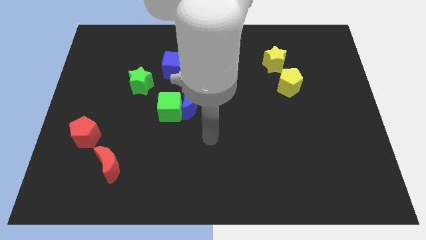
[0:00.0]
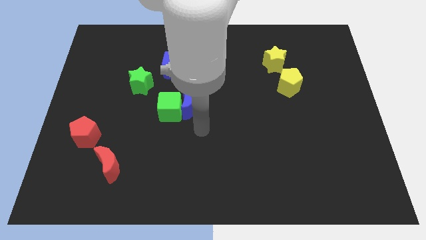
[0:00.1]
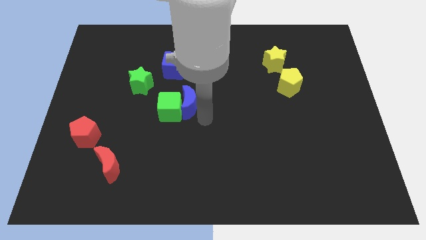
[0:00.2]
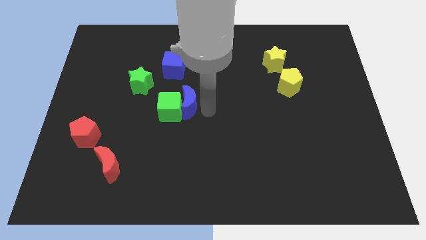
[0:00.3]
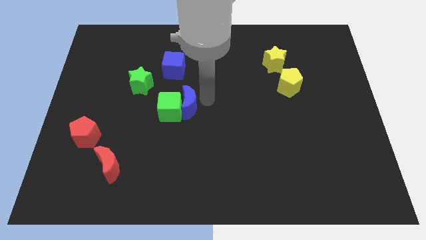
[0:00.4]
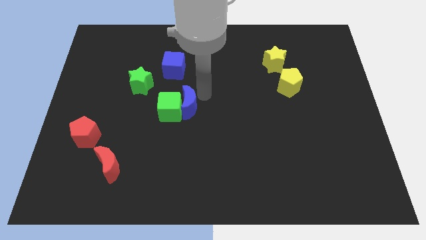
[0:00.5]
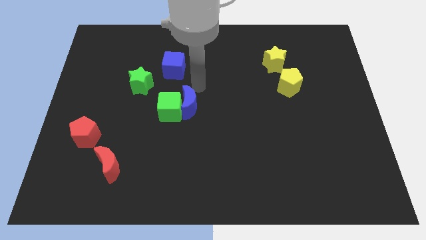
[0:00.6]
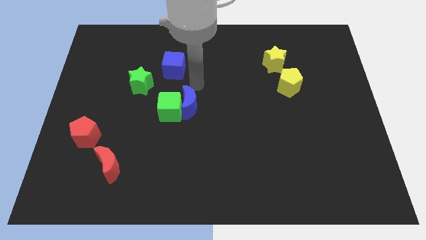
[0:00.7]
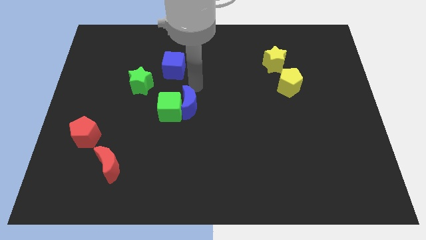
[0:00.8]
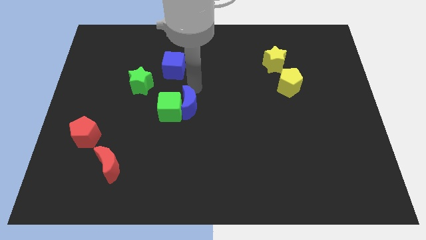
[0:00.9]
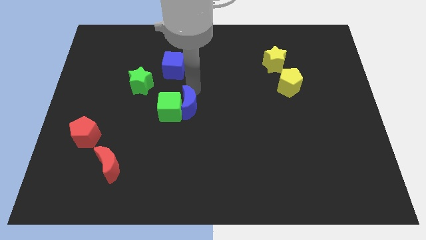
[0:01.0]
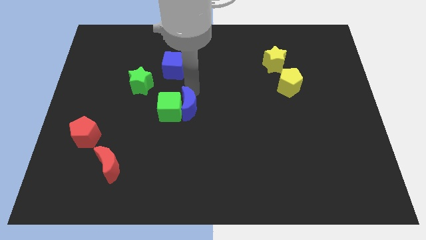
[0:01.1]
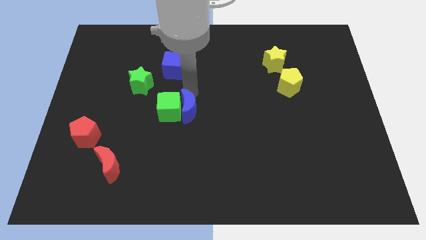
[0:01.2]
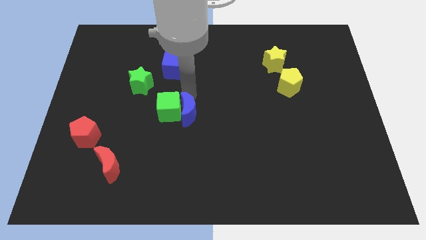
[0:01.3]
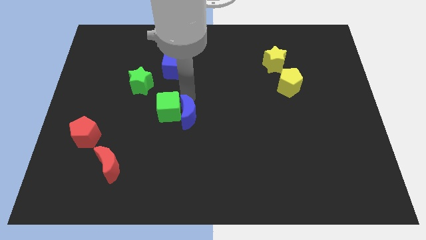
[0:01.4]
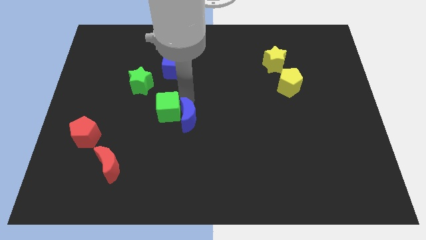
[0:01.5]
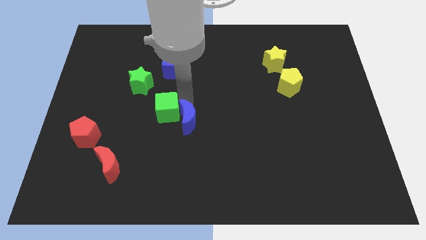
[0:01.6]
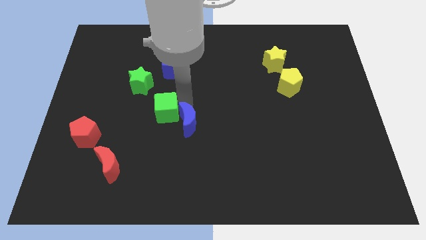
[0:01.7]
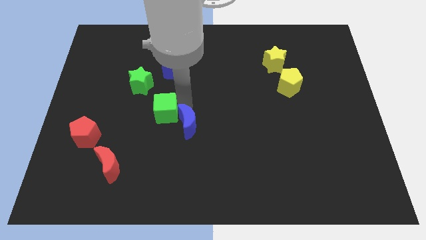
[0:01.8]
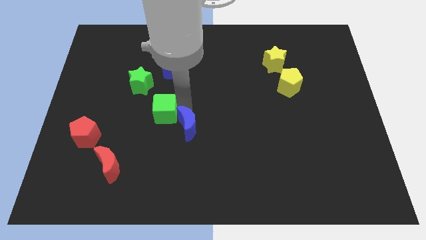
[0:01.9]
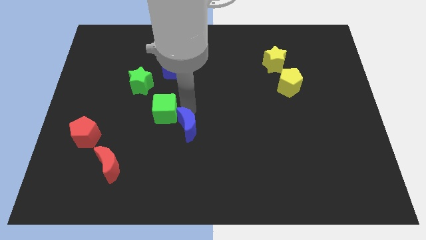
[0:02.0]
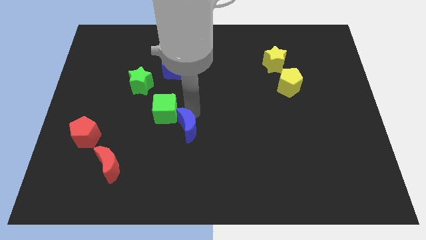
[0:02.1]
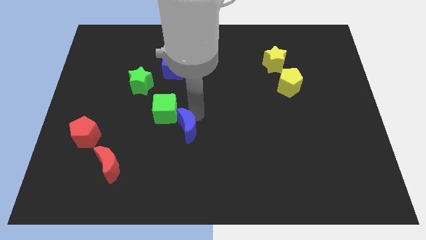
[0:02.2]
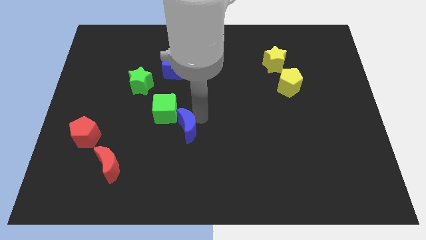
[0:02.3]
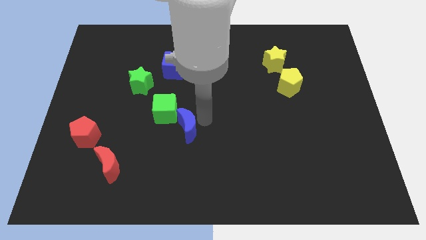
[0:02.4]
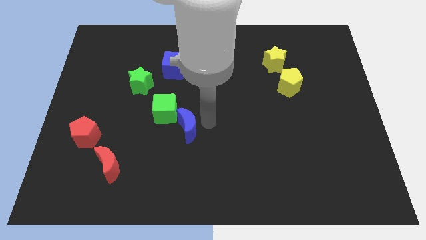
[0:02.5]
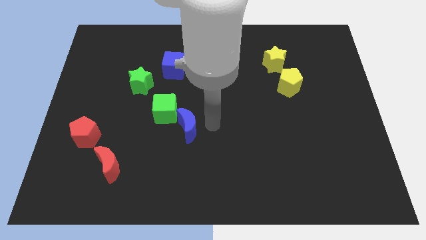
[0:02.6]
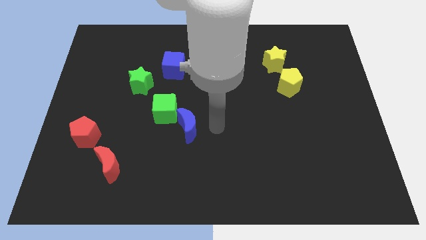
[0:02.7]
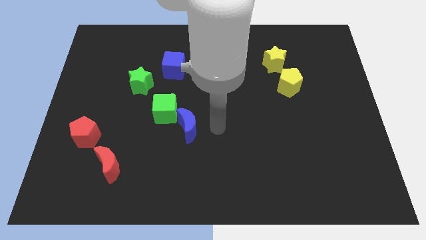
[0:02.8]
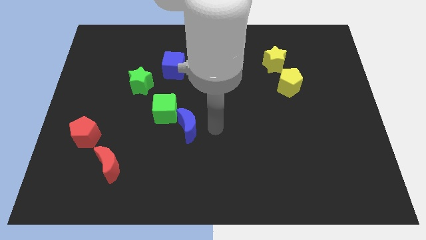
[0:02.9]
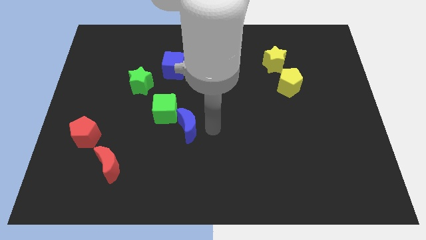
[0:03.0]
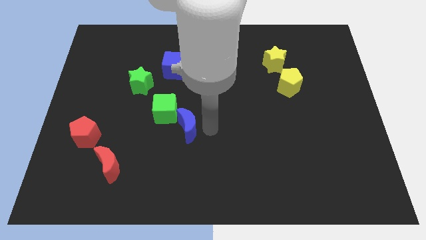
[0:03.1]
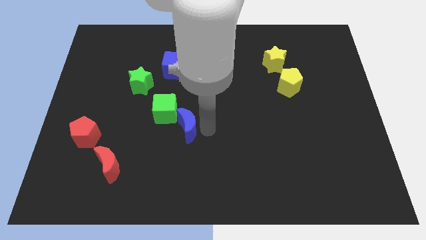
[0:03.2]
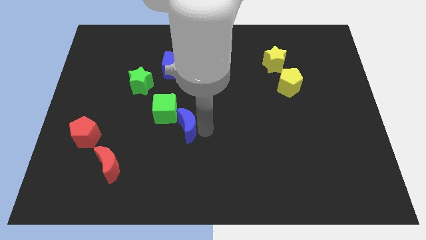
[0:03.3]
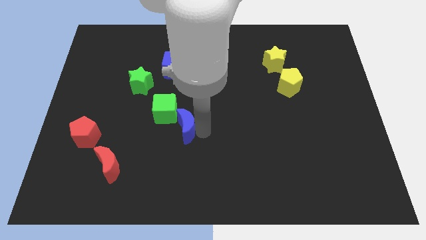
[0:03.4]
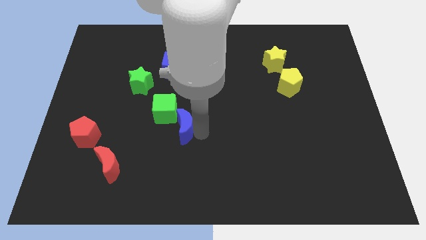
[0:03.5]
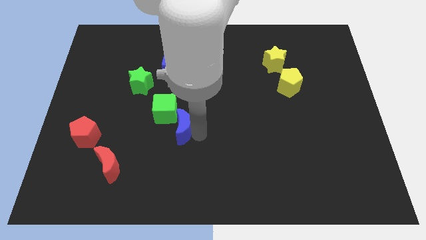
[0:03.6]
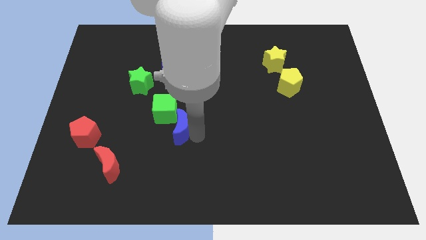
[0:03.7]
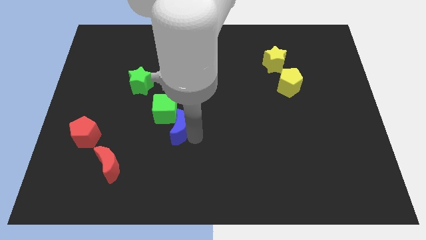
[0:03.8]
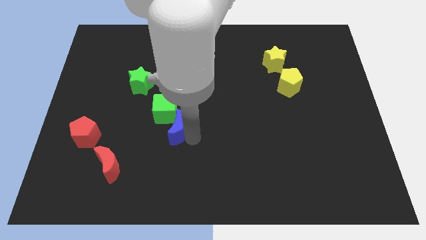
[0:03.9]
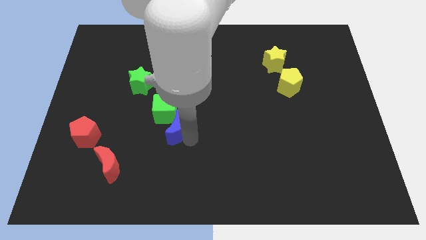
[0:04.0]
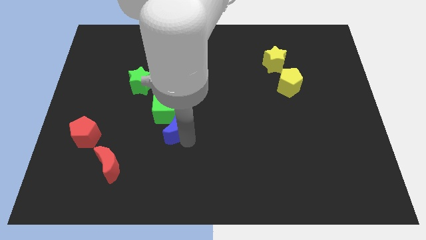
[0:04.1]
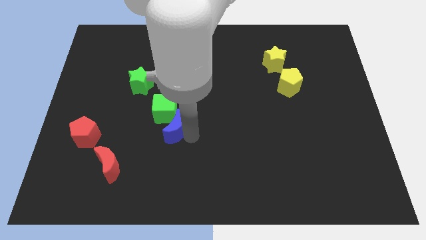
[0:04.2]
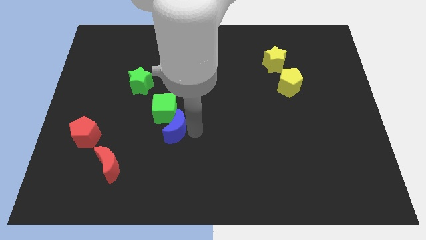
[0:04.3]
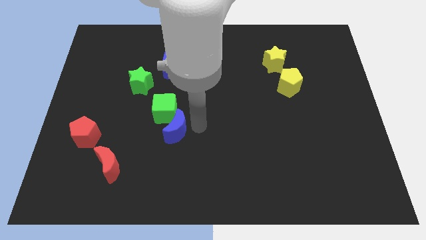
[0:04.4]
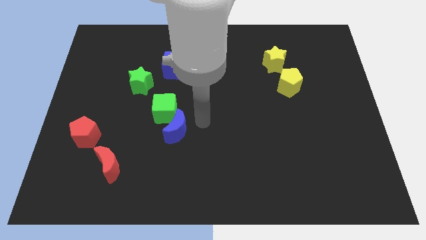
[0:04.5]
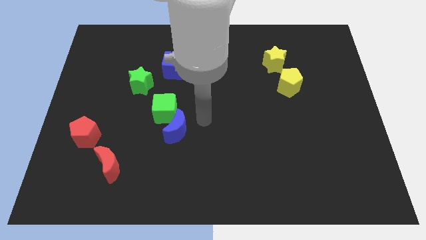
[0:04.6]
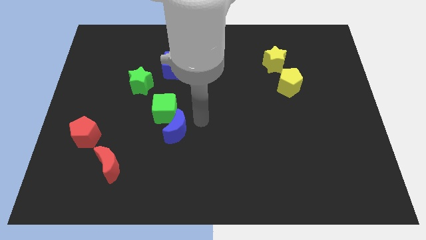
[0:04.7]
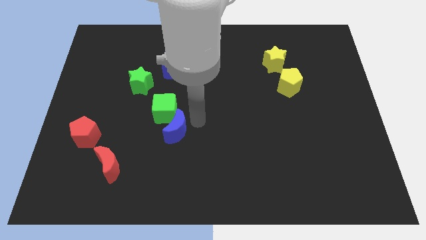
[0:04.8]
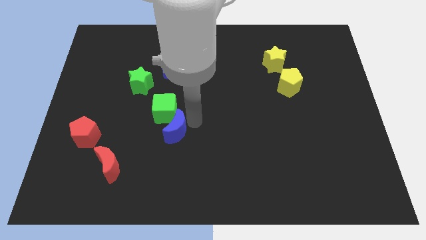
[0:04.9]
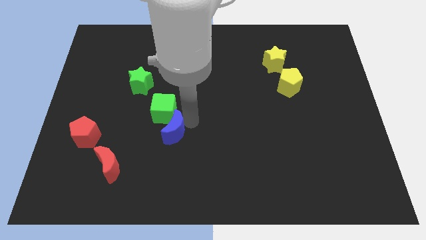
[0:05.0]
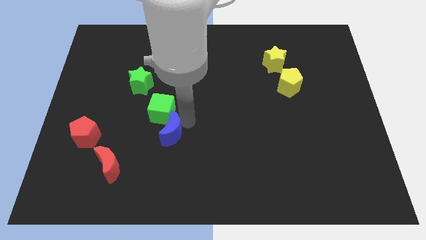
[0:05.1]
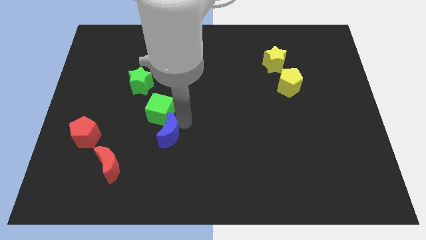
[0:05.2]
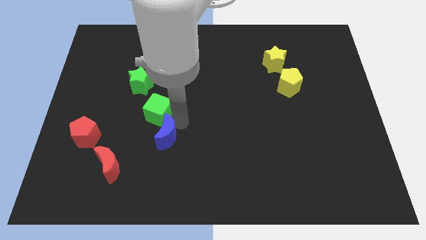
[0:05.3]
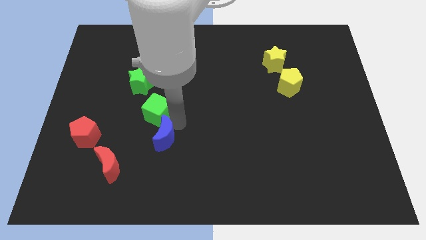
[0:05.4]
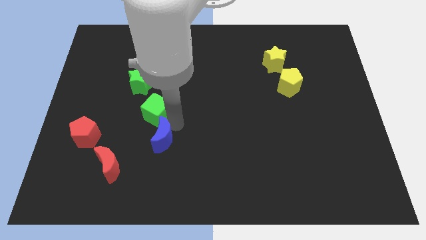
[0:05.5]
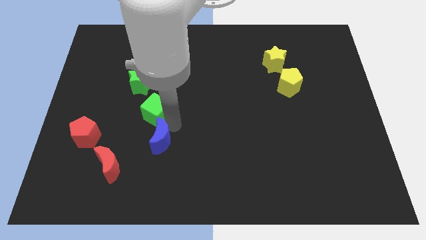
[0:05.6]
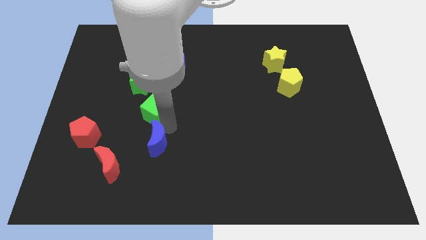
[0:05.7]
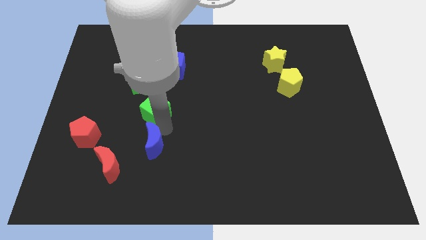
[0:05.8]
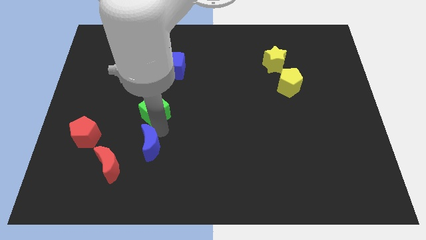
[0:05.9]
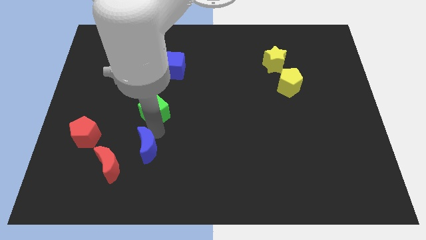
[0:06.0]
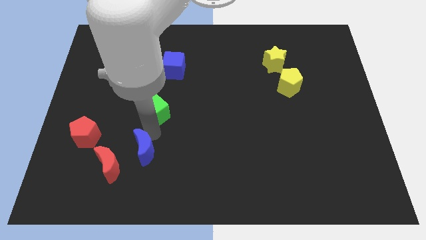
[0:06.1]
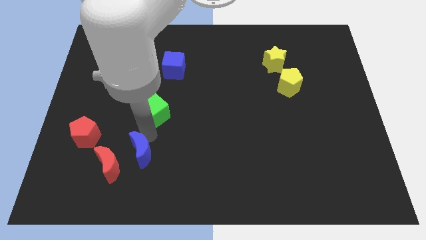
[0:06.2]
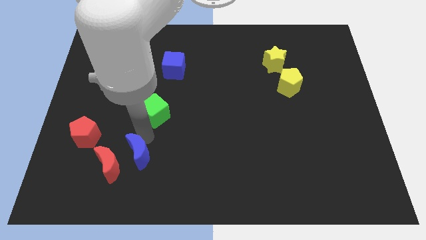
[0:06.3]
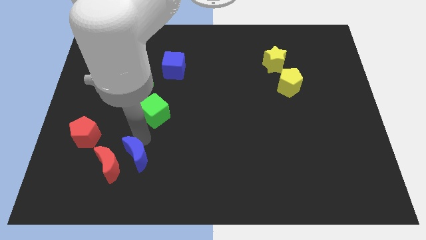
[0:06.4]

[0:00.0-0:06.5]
slide the blue moon next to the red moon

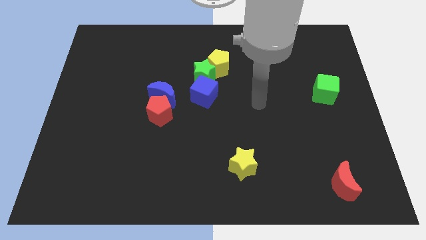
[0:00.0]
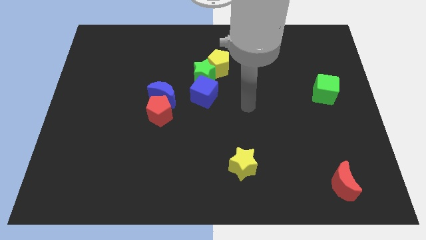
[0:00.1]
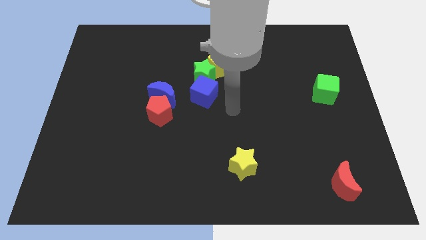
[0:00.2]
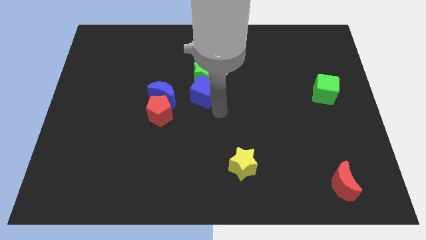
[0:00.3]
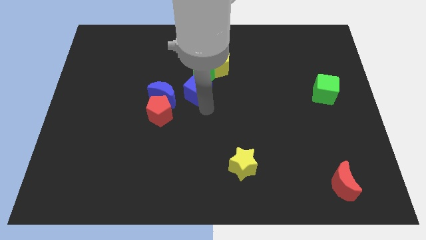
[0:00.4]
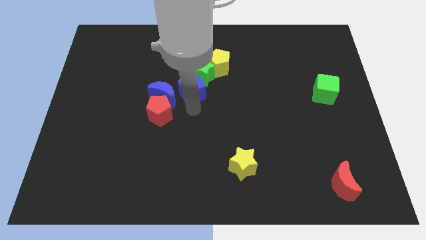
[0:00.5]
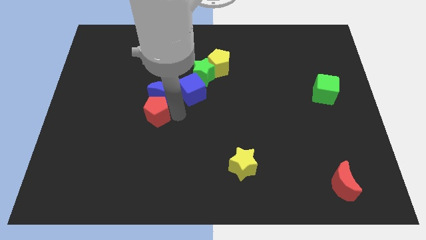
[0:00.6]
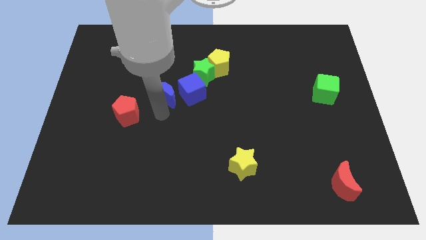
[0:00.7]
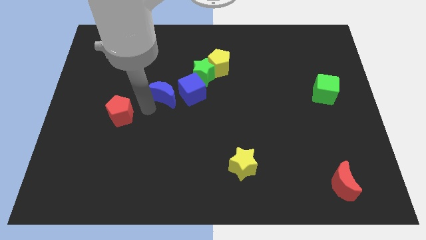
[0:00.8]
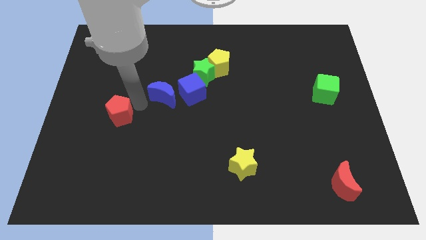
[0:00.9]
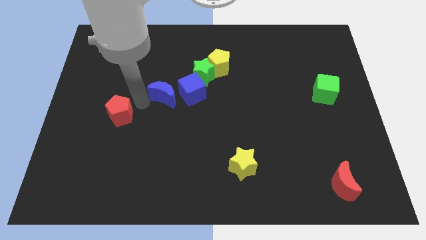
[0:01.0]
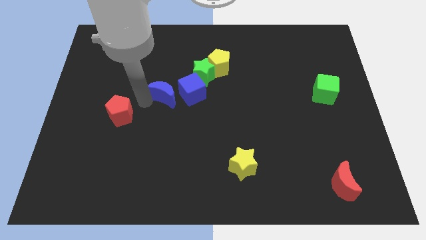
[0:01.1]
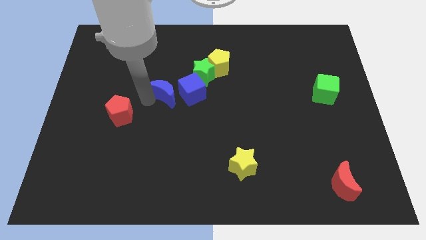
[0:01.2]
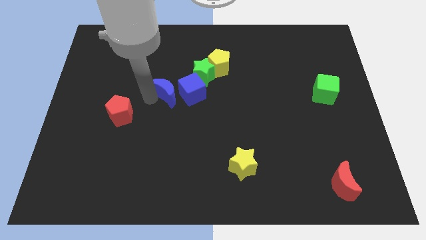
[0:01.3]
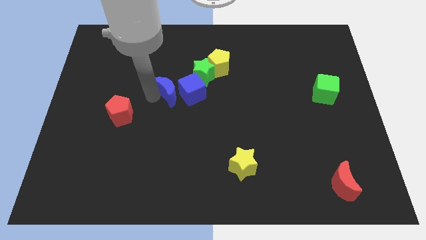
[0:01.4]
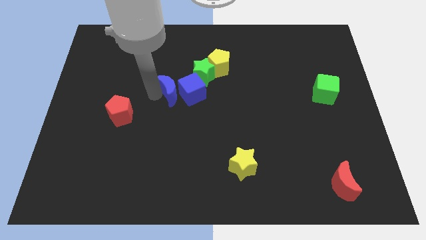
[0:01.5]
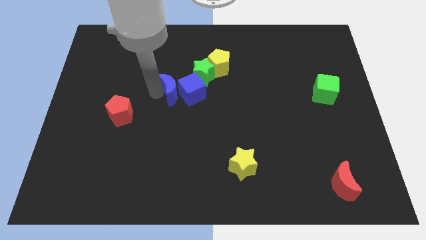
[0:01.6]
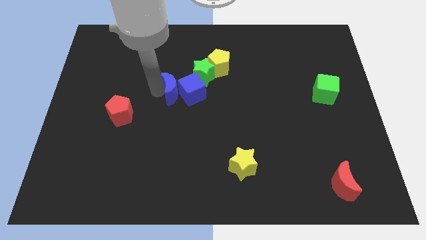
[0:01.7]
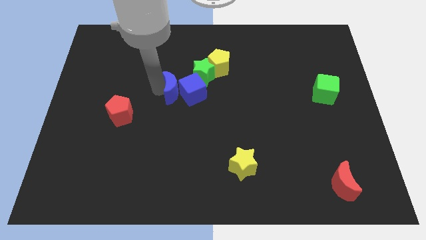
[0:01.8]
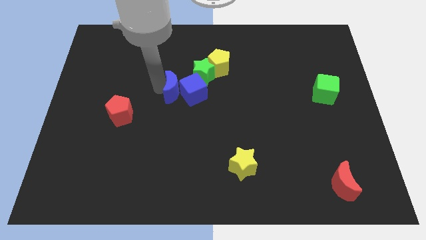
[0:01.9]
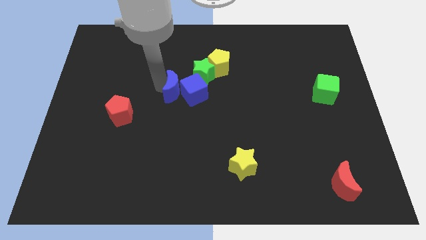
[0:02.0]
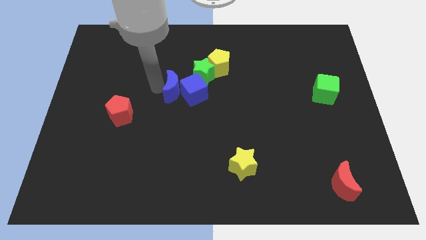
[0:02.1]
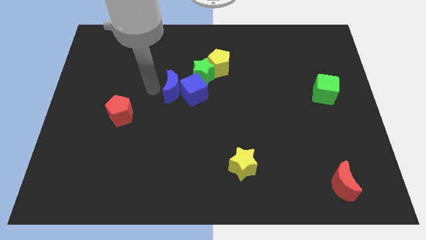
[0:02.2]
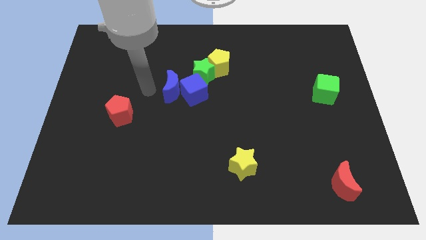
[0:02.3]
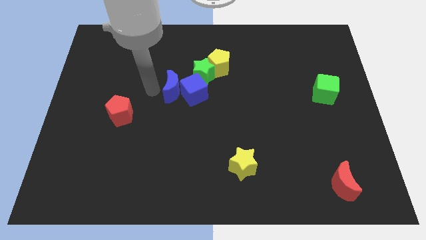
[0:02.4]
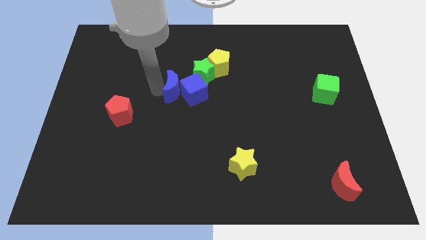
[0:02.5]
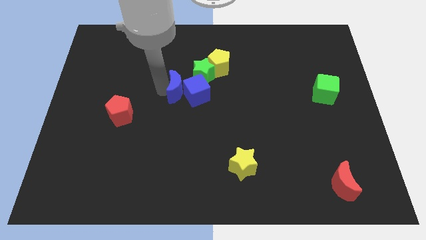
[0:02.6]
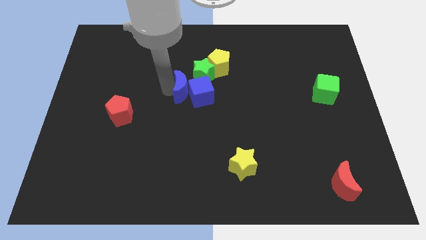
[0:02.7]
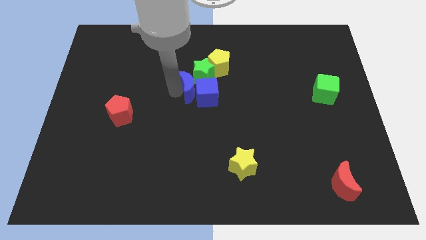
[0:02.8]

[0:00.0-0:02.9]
put the blue moon towards the green star
